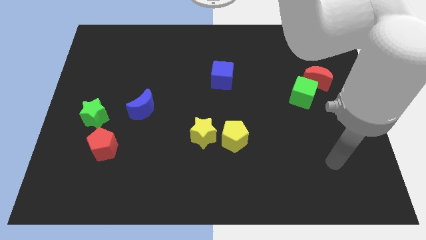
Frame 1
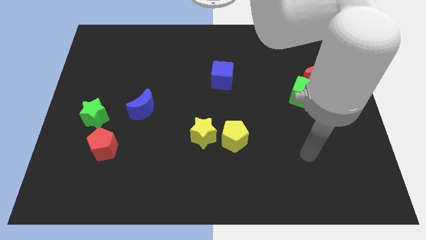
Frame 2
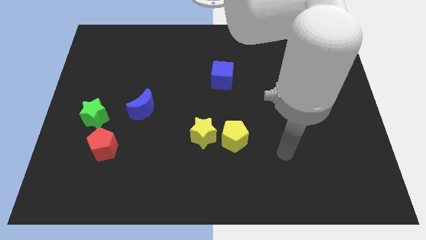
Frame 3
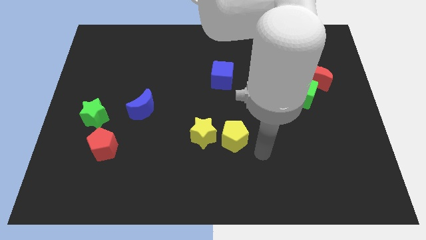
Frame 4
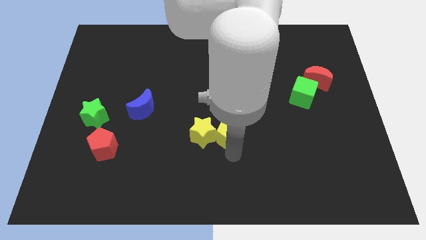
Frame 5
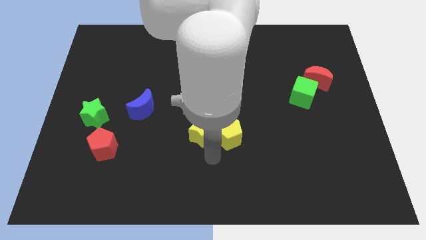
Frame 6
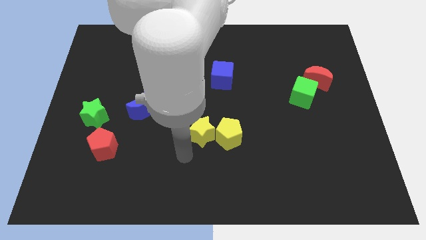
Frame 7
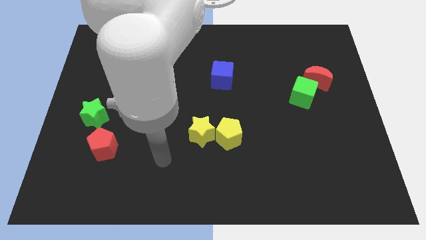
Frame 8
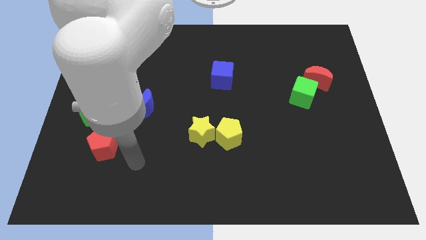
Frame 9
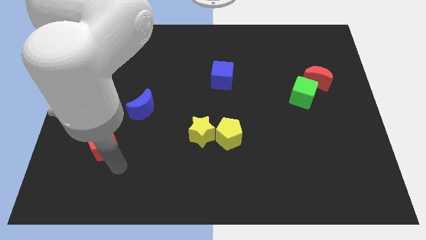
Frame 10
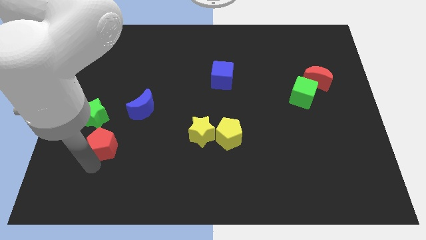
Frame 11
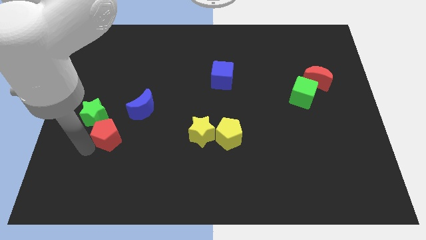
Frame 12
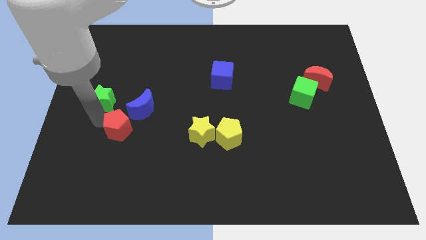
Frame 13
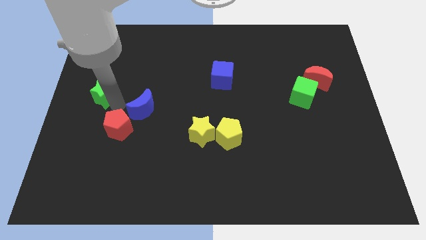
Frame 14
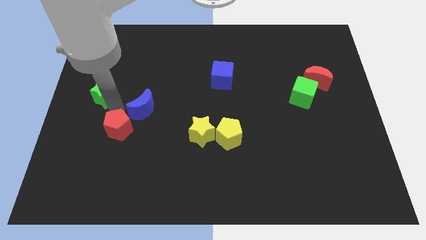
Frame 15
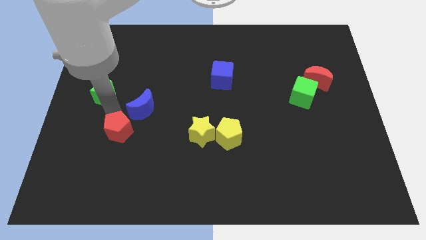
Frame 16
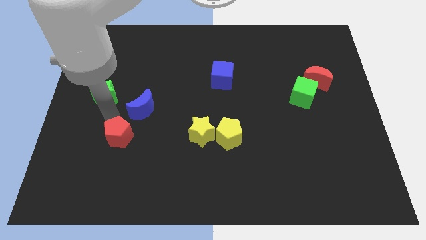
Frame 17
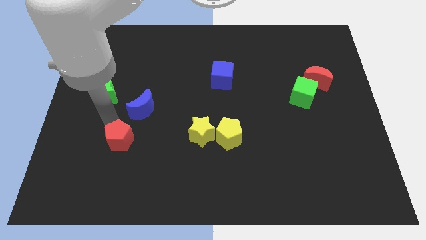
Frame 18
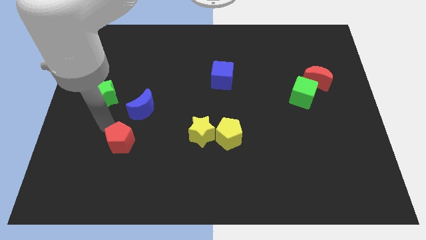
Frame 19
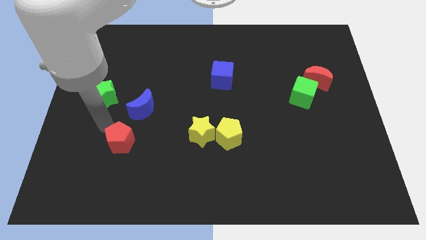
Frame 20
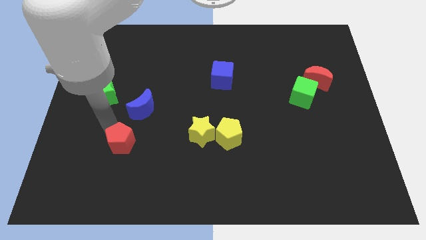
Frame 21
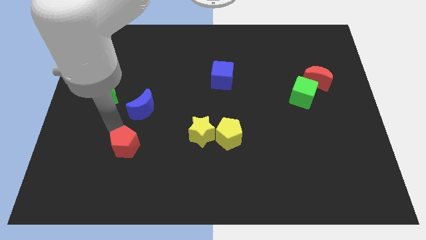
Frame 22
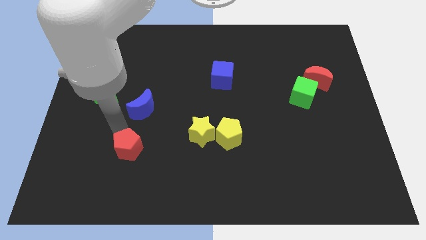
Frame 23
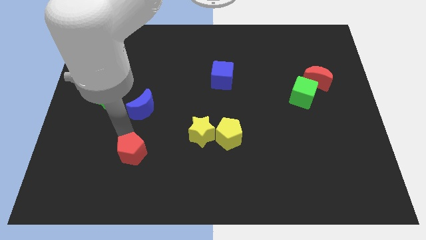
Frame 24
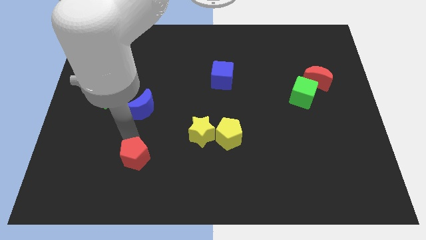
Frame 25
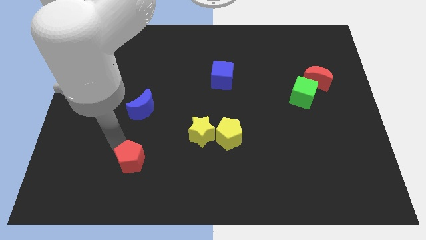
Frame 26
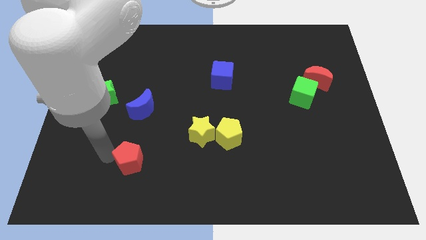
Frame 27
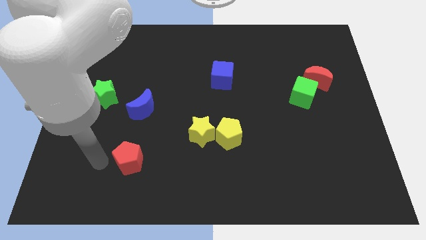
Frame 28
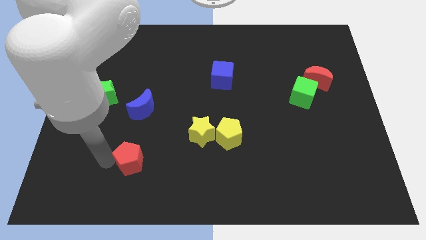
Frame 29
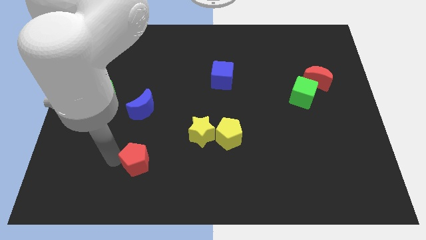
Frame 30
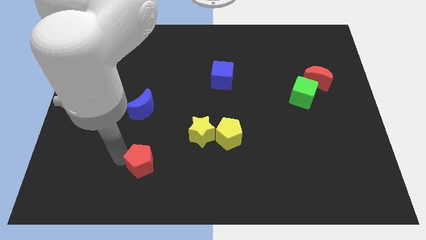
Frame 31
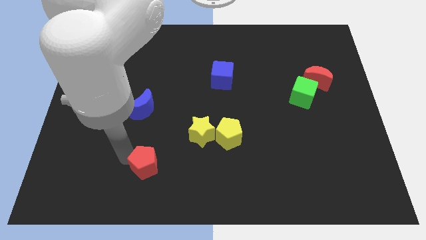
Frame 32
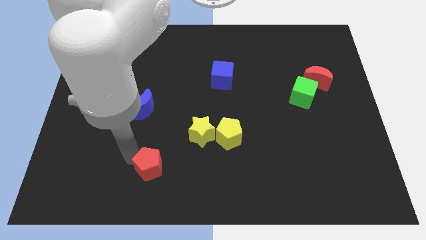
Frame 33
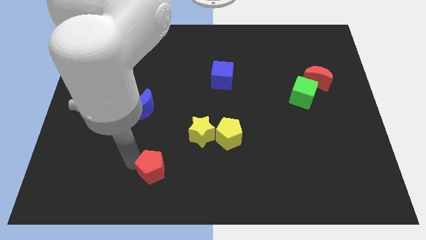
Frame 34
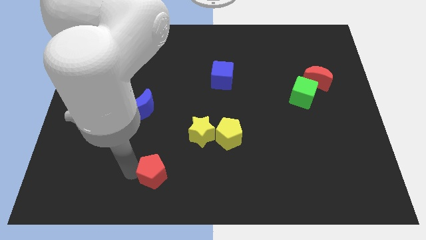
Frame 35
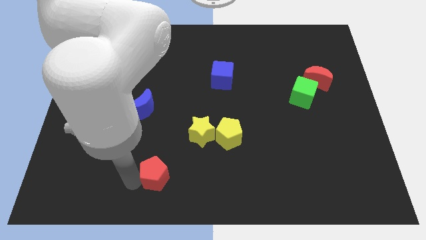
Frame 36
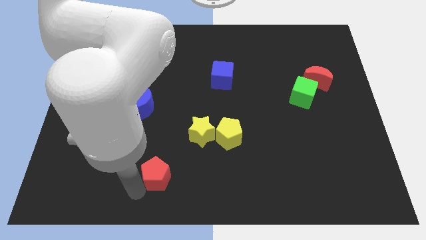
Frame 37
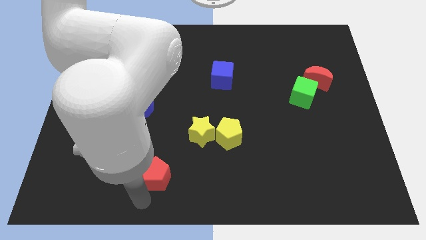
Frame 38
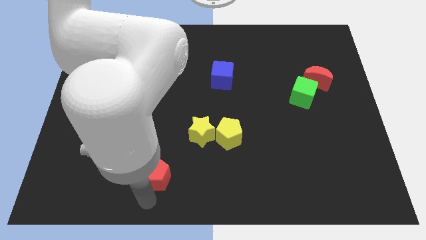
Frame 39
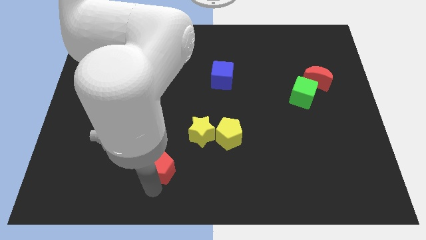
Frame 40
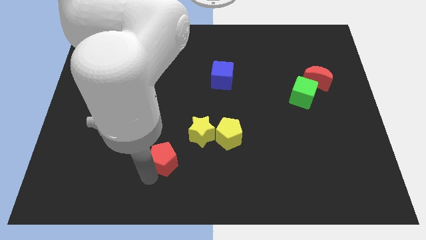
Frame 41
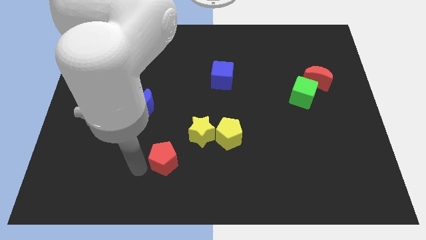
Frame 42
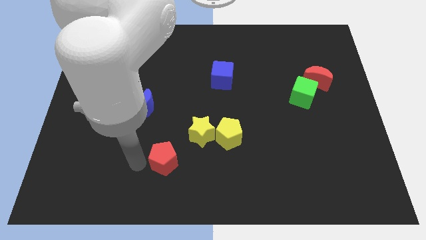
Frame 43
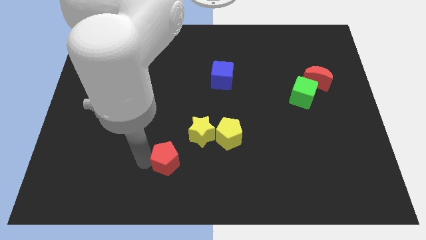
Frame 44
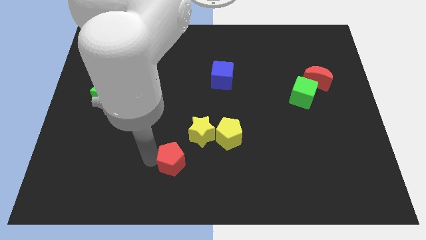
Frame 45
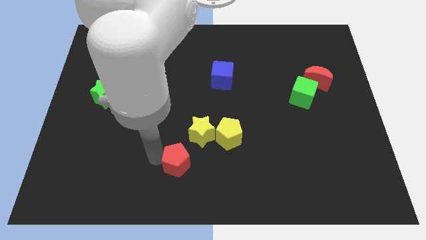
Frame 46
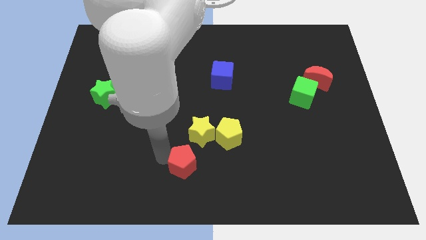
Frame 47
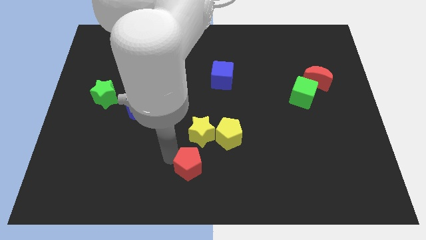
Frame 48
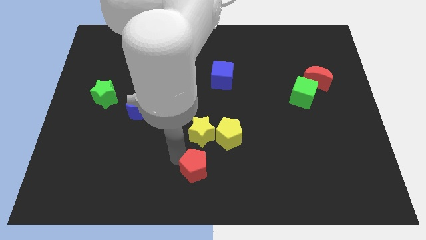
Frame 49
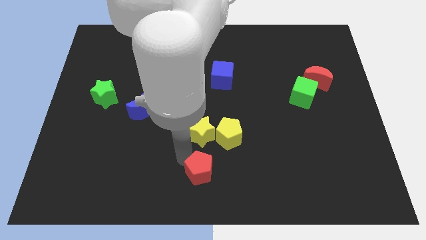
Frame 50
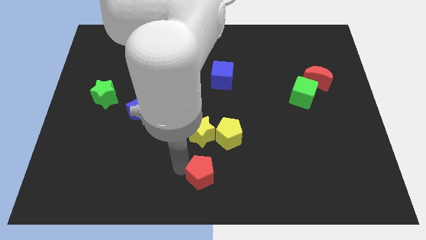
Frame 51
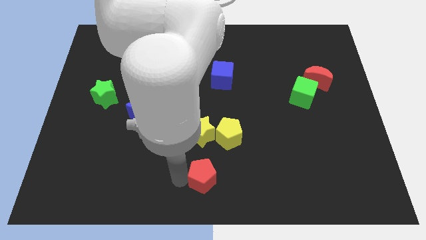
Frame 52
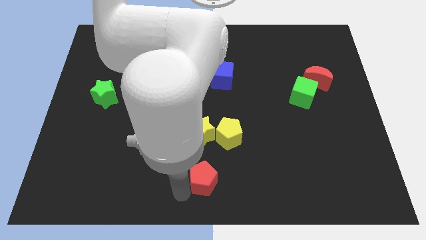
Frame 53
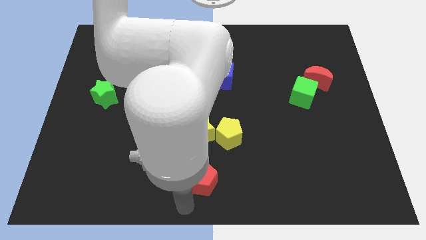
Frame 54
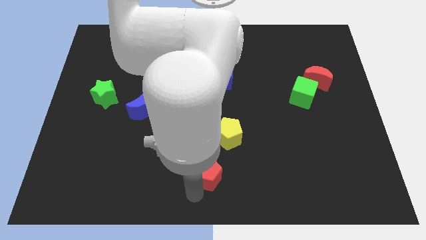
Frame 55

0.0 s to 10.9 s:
move the red pentagon right

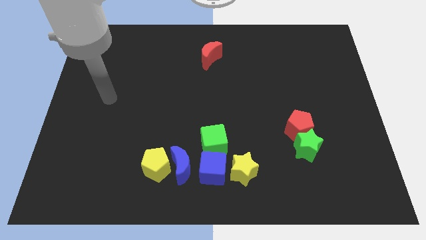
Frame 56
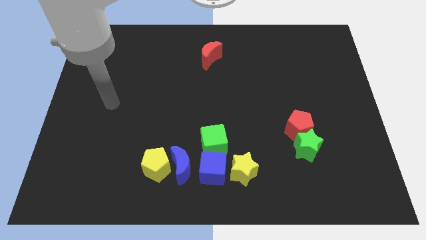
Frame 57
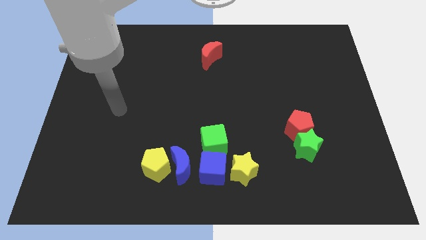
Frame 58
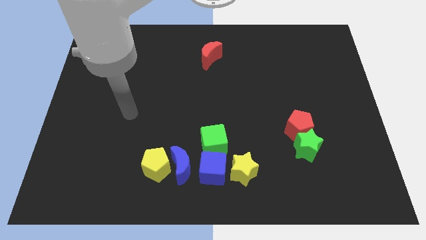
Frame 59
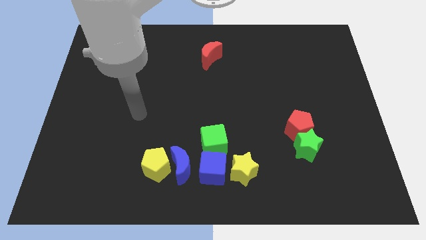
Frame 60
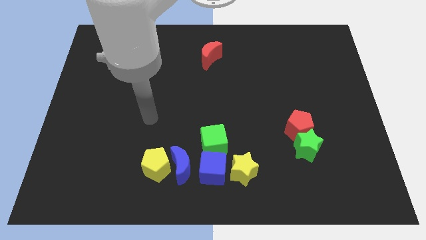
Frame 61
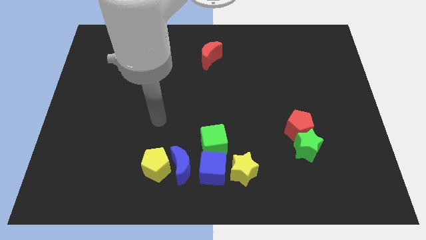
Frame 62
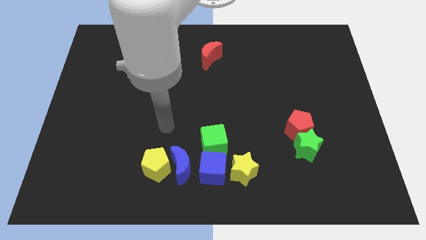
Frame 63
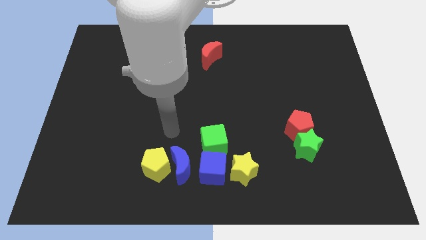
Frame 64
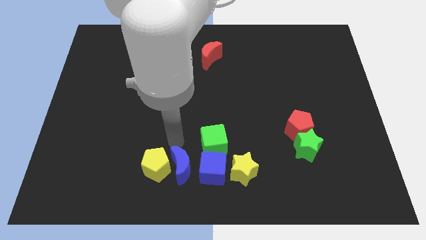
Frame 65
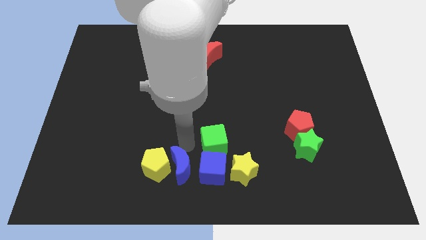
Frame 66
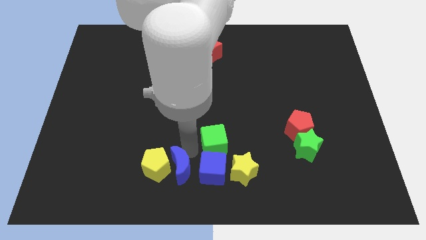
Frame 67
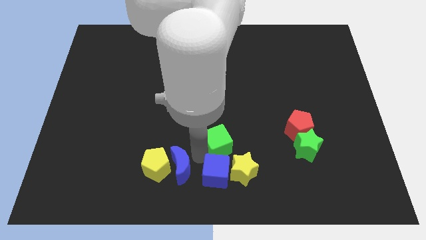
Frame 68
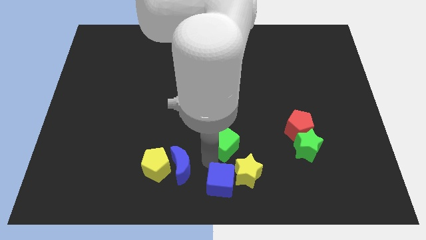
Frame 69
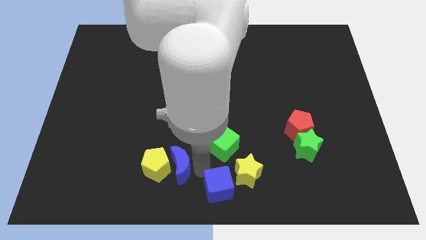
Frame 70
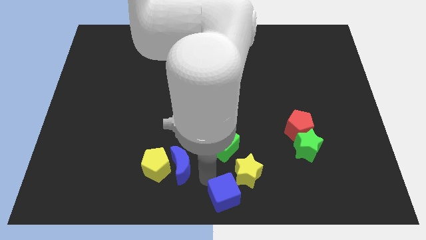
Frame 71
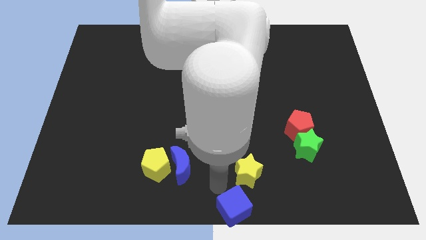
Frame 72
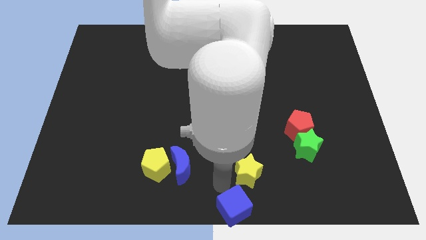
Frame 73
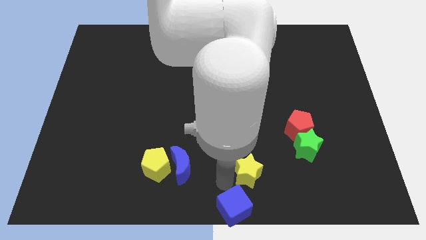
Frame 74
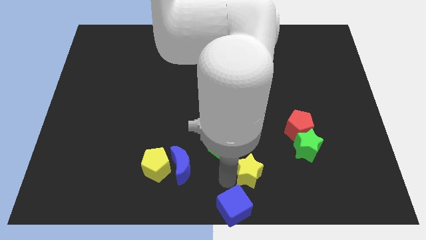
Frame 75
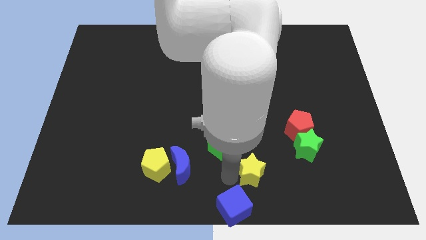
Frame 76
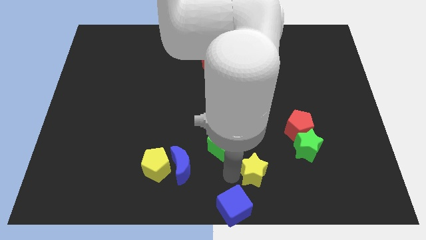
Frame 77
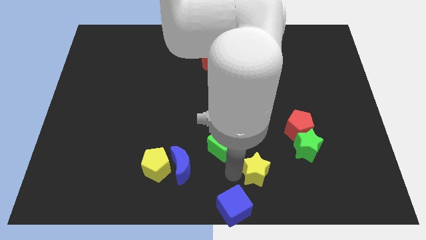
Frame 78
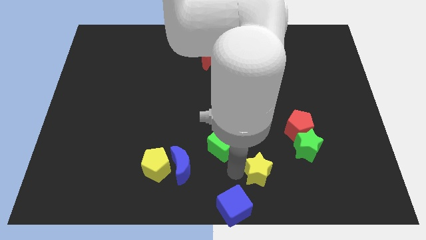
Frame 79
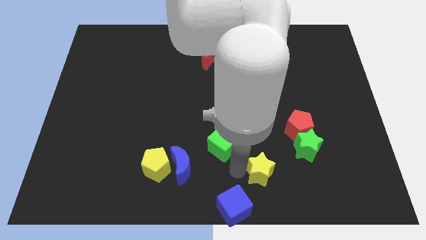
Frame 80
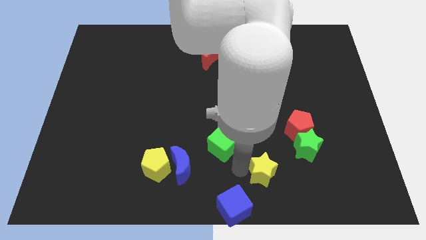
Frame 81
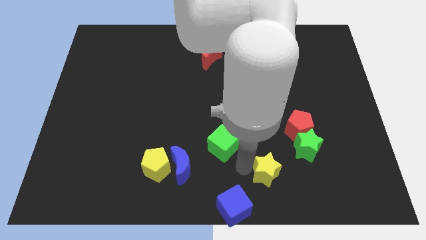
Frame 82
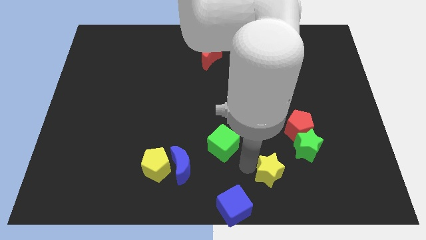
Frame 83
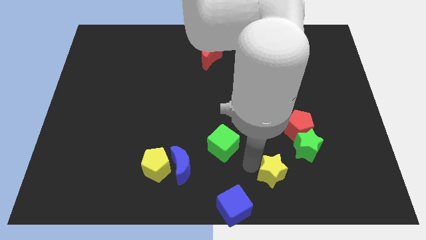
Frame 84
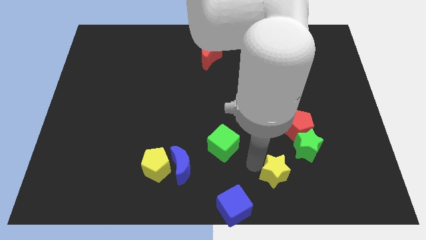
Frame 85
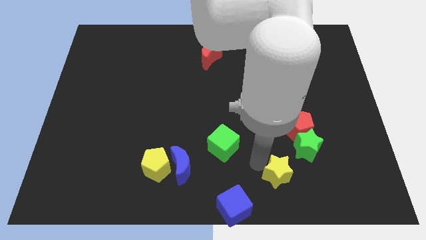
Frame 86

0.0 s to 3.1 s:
move the yellow star somewhat right
